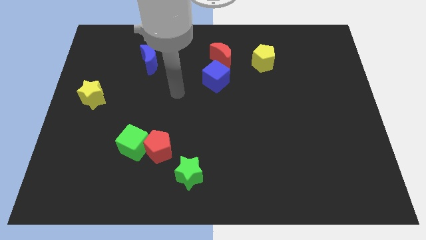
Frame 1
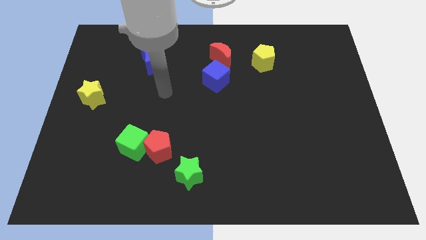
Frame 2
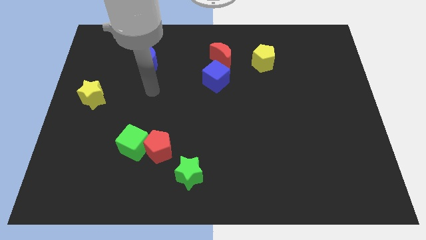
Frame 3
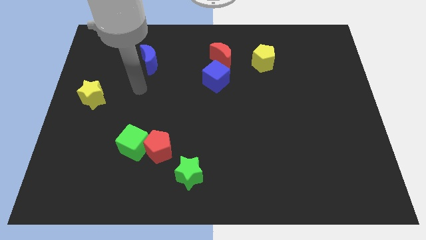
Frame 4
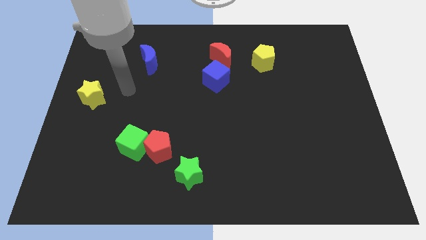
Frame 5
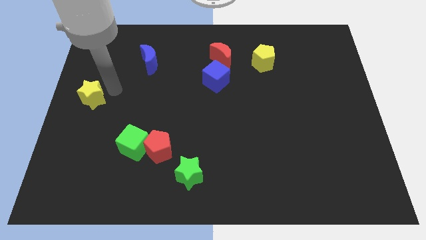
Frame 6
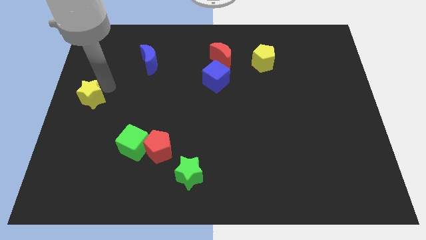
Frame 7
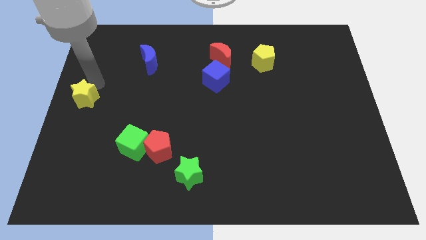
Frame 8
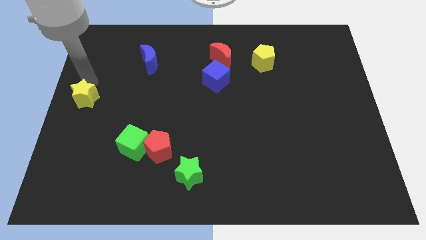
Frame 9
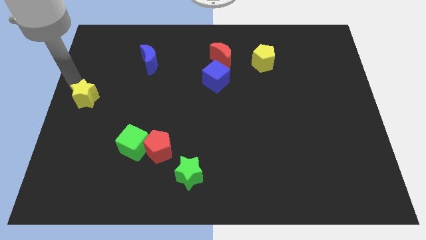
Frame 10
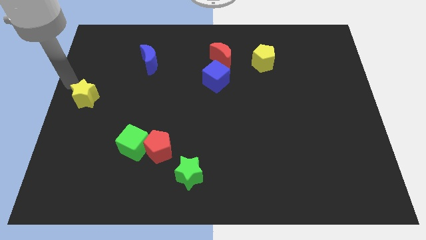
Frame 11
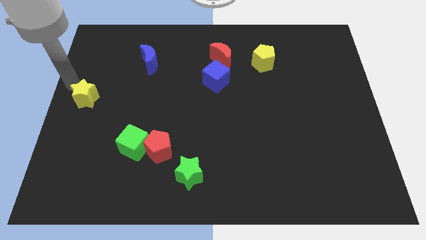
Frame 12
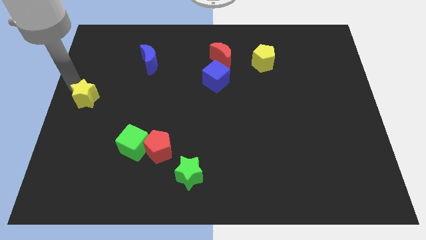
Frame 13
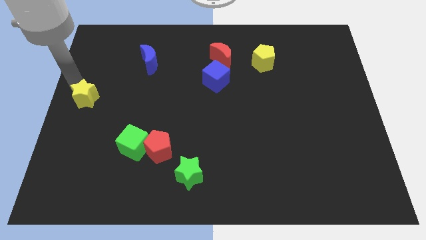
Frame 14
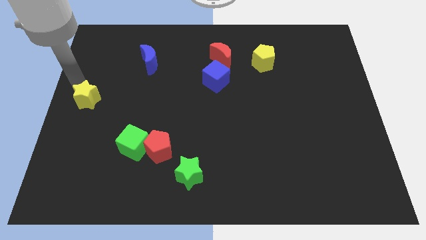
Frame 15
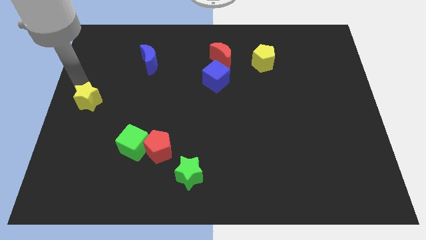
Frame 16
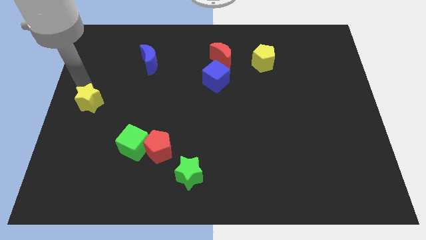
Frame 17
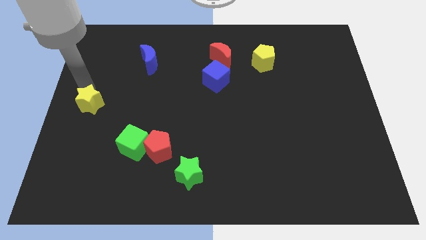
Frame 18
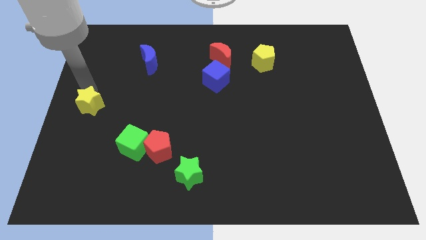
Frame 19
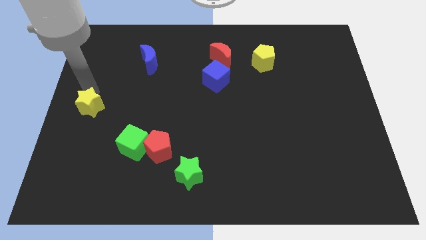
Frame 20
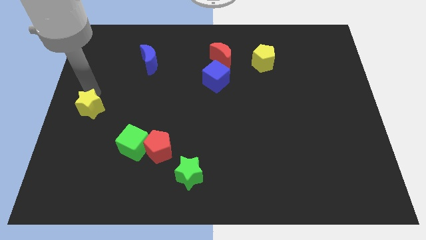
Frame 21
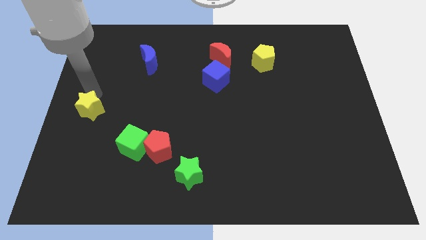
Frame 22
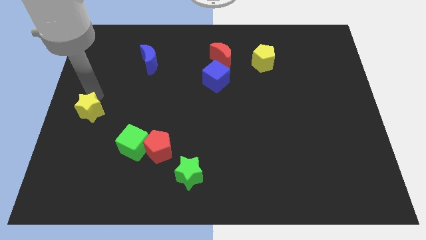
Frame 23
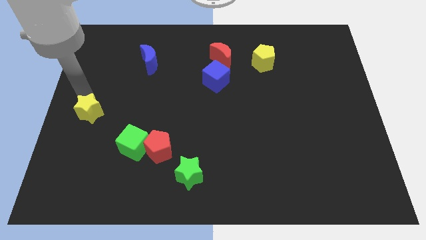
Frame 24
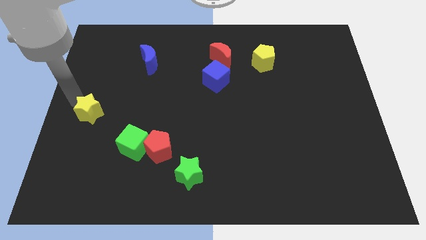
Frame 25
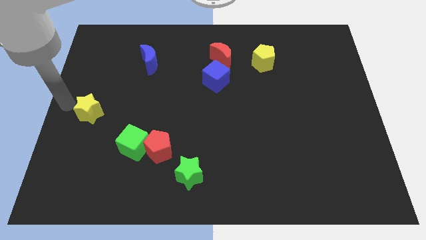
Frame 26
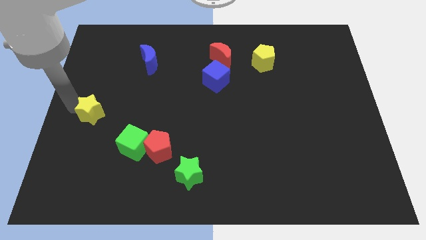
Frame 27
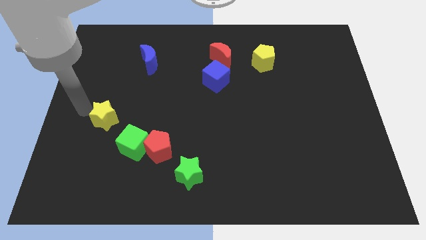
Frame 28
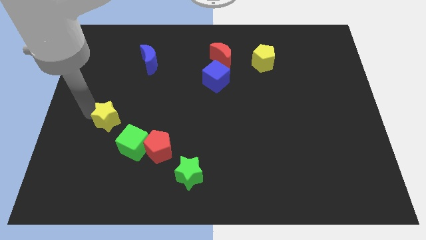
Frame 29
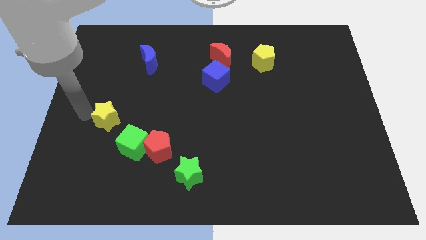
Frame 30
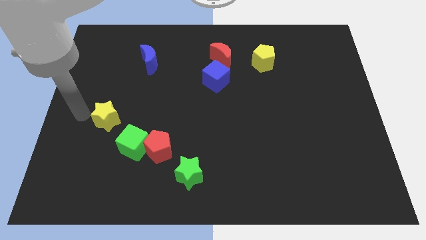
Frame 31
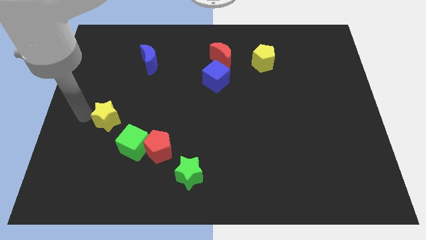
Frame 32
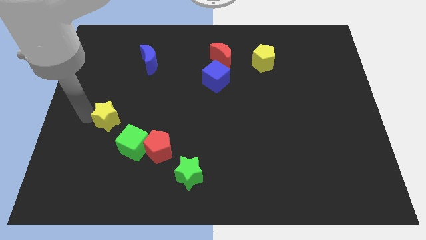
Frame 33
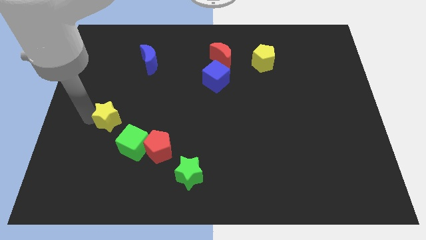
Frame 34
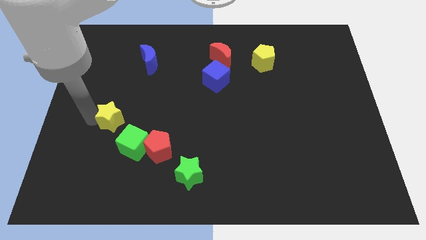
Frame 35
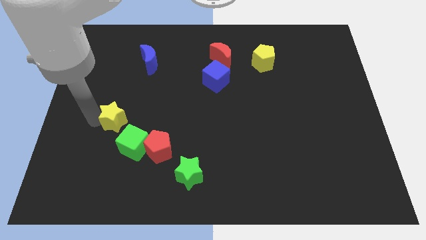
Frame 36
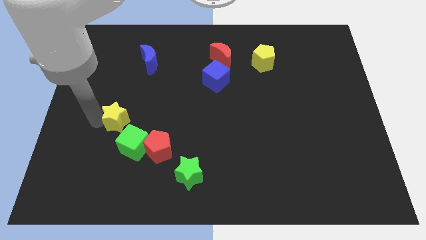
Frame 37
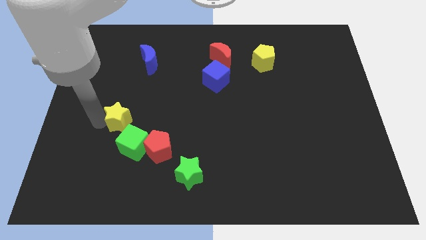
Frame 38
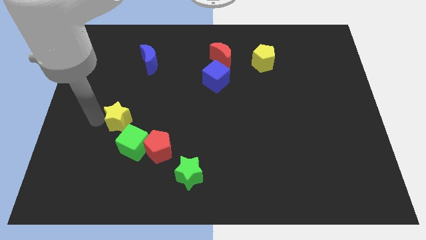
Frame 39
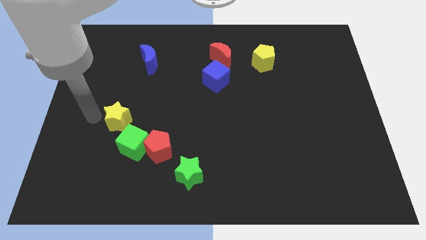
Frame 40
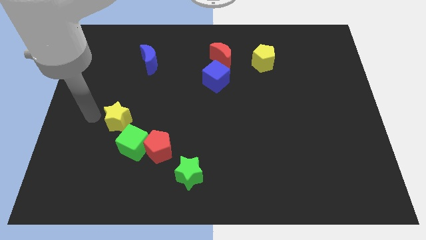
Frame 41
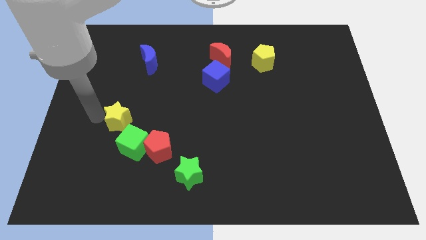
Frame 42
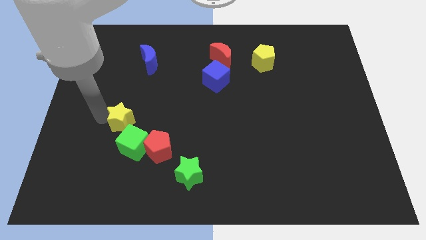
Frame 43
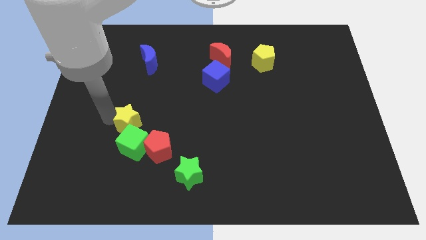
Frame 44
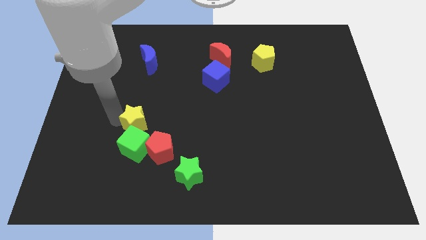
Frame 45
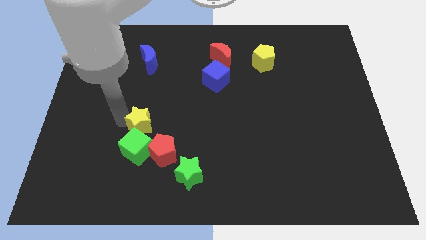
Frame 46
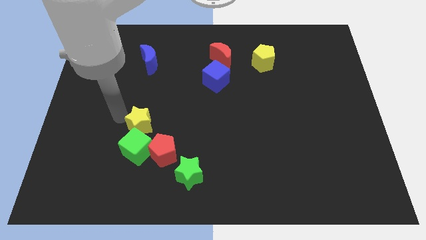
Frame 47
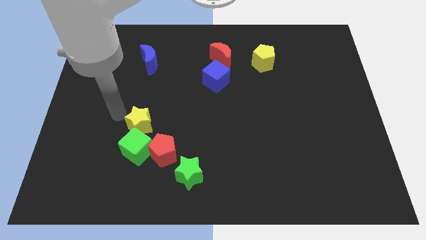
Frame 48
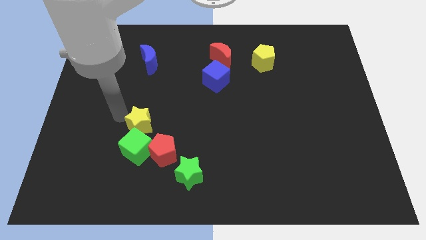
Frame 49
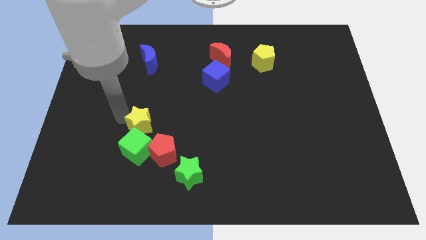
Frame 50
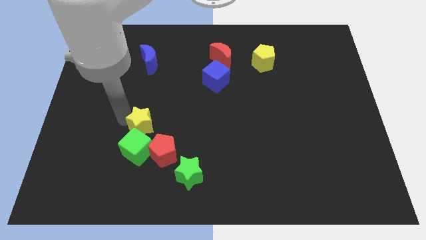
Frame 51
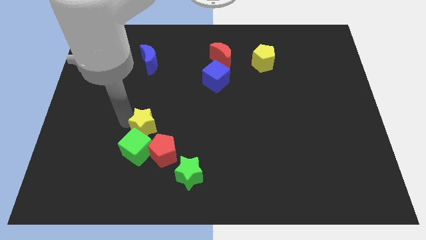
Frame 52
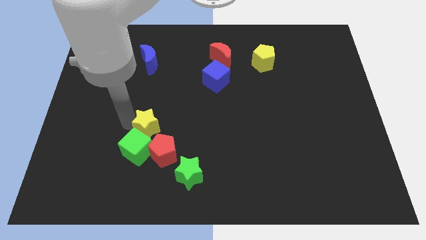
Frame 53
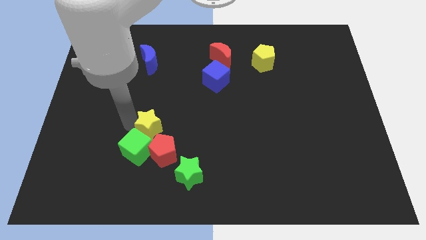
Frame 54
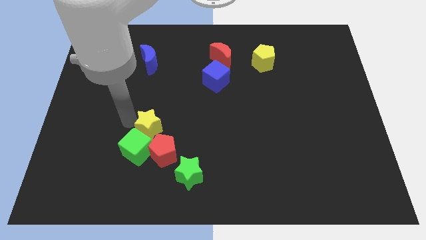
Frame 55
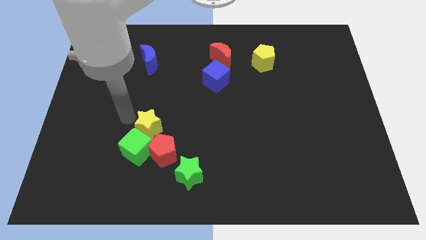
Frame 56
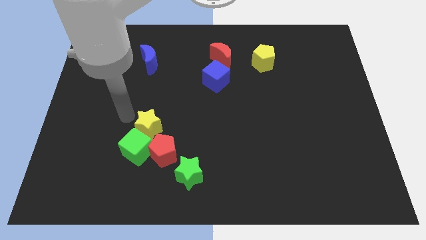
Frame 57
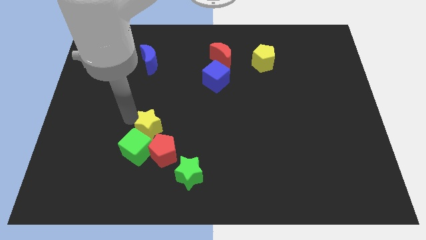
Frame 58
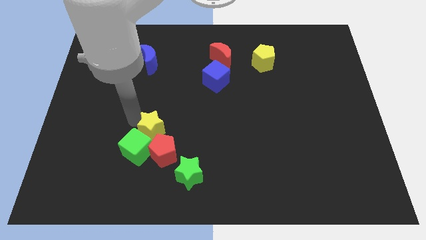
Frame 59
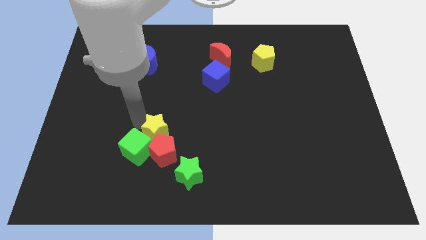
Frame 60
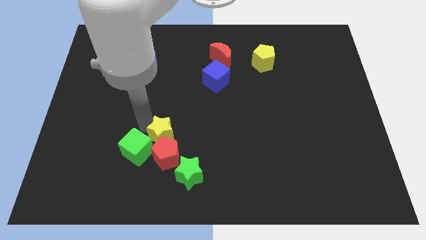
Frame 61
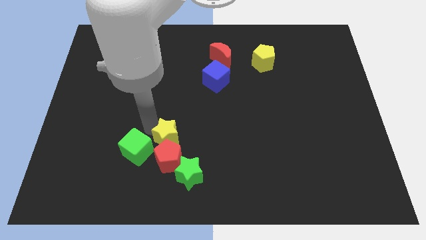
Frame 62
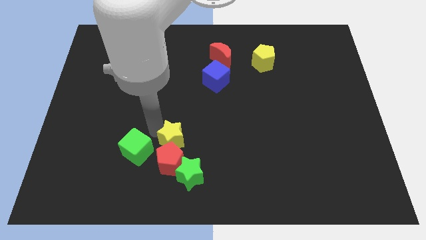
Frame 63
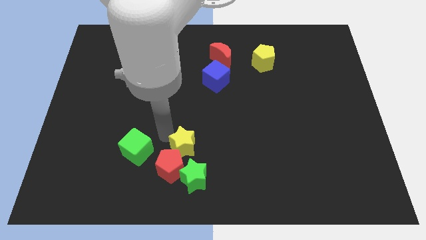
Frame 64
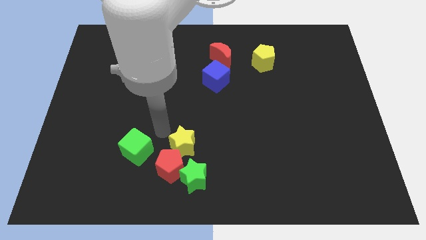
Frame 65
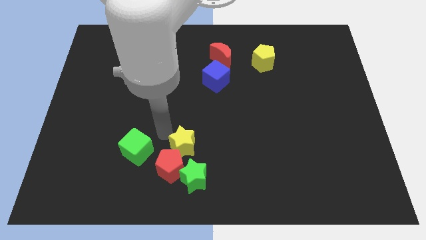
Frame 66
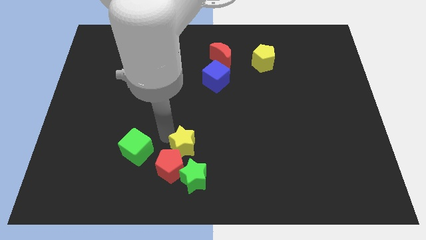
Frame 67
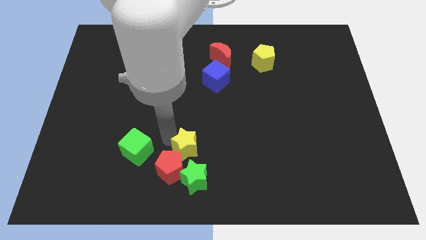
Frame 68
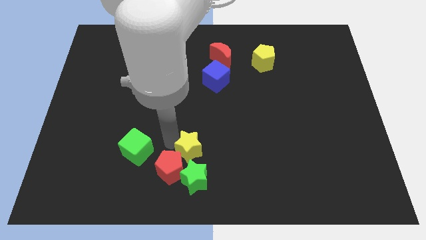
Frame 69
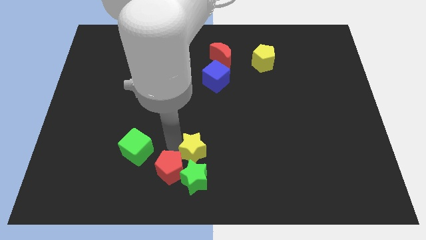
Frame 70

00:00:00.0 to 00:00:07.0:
slide the yellow star just right of the red pentagon

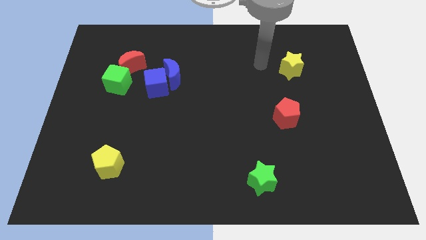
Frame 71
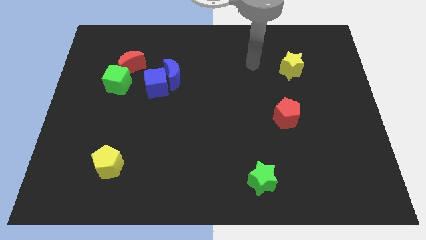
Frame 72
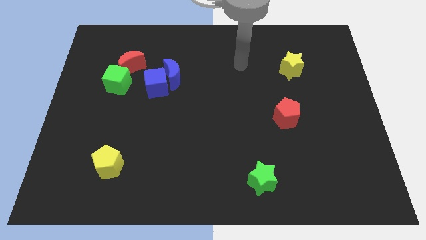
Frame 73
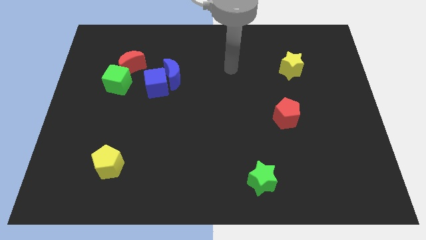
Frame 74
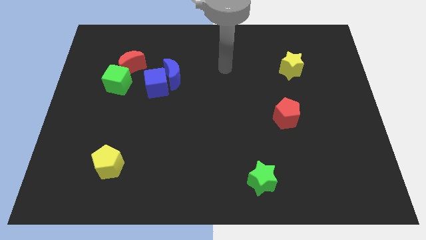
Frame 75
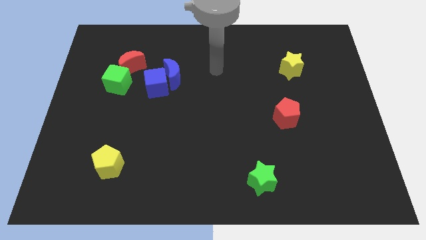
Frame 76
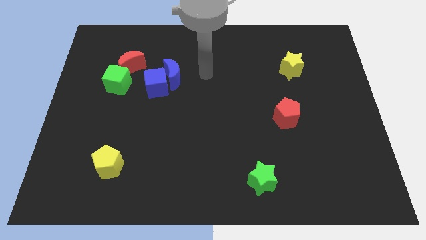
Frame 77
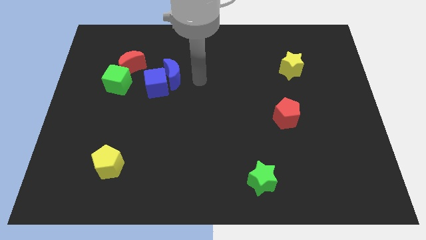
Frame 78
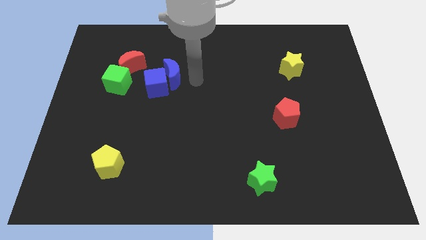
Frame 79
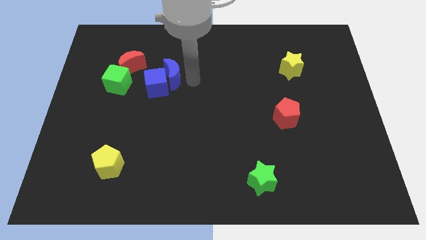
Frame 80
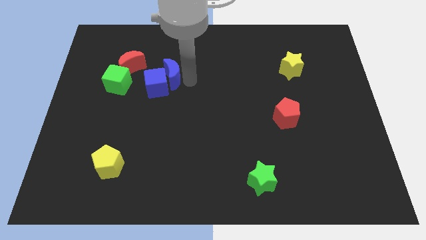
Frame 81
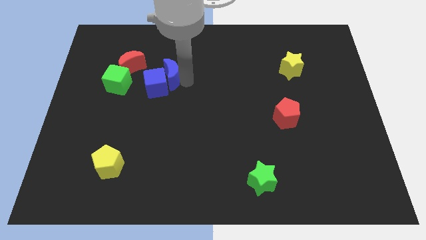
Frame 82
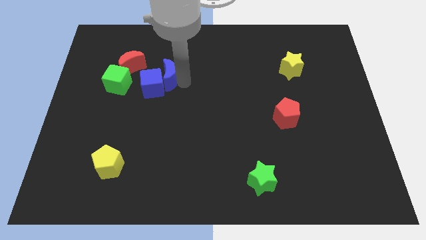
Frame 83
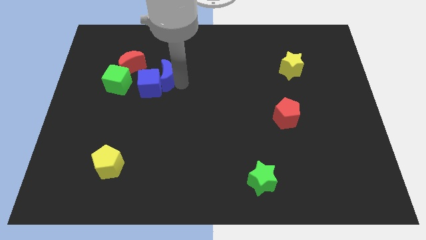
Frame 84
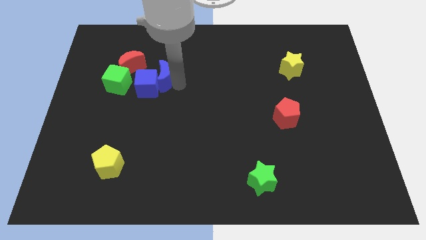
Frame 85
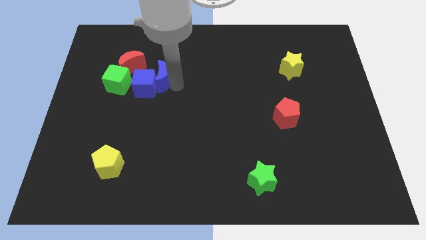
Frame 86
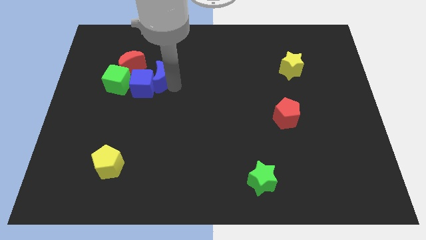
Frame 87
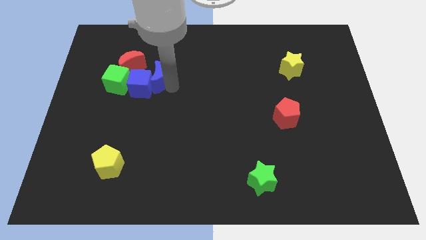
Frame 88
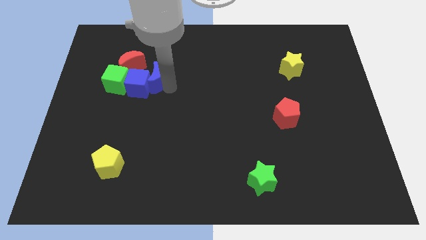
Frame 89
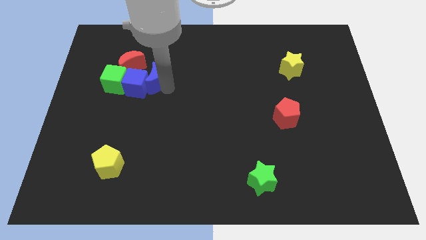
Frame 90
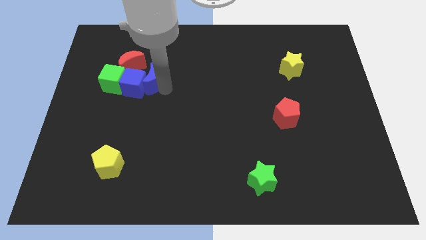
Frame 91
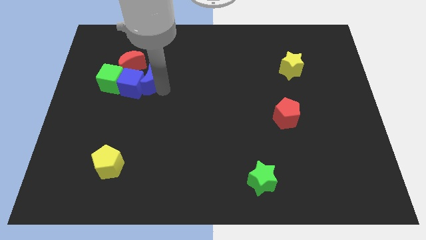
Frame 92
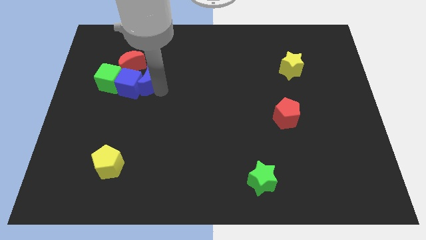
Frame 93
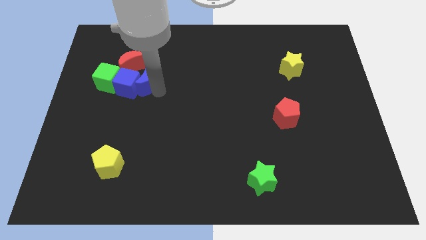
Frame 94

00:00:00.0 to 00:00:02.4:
push the blue moon to the bottom side of the red moon
